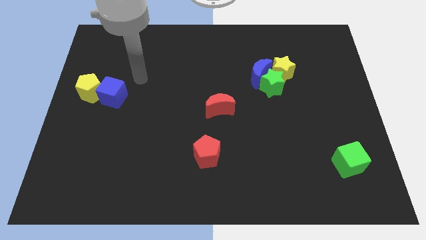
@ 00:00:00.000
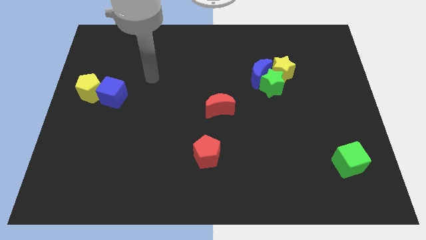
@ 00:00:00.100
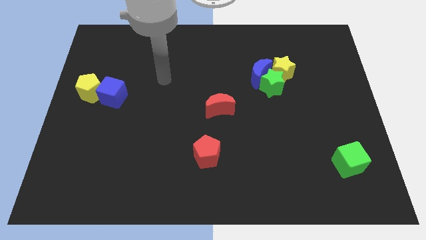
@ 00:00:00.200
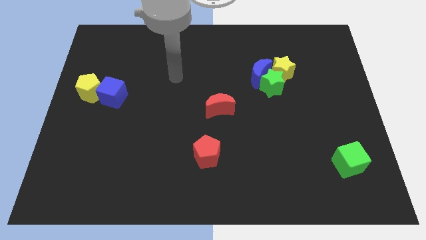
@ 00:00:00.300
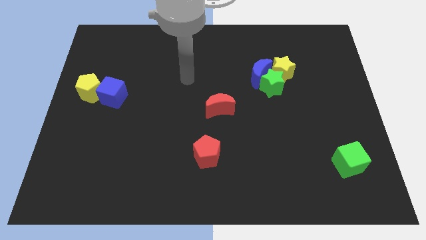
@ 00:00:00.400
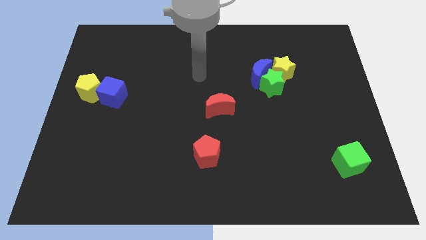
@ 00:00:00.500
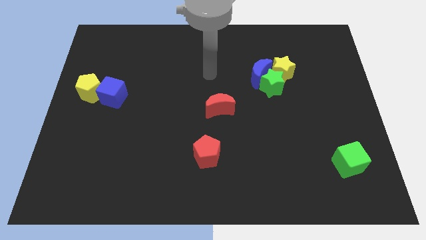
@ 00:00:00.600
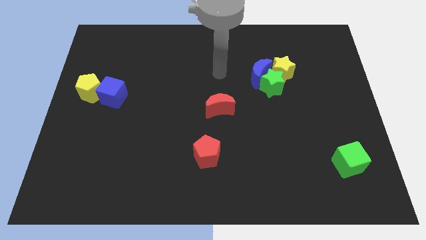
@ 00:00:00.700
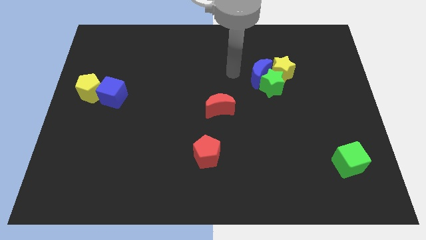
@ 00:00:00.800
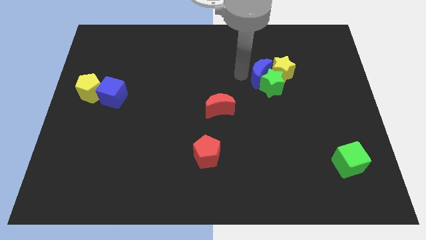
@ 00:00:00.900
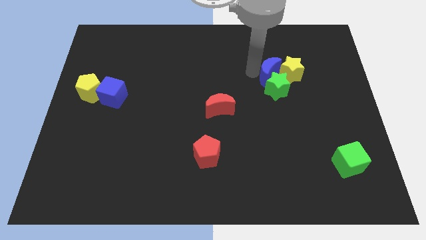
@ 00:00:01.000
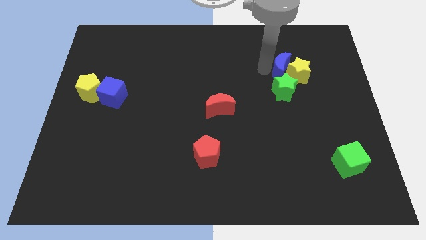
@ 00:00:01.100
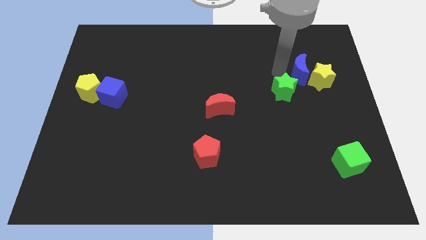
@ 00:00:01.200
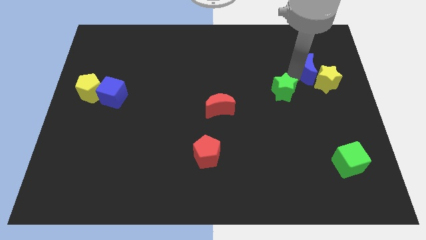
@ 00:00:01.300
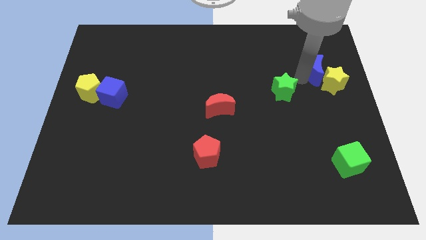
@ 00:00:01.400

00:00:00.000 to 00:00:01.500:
move the green star away from the blue moon and yellow star

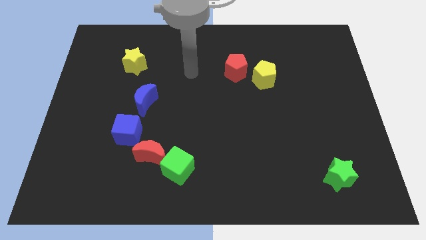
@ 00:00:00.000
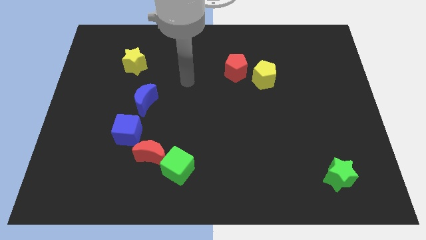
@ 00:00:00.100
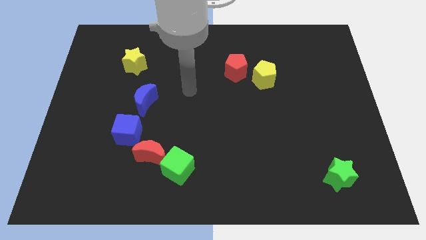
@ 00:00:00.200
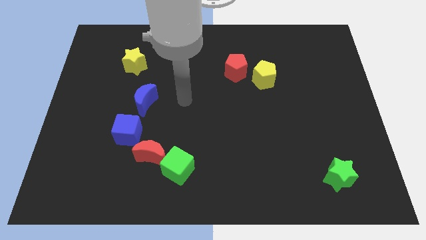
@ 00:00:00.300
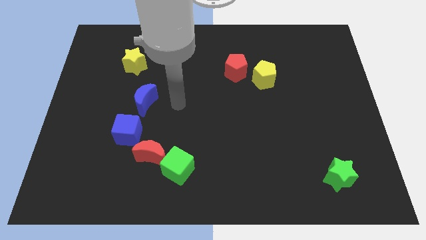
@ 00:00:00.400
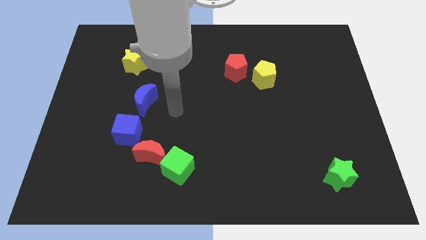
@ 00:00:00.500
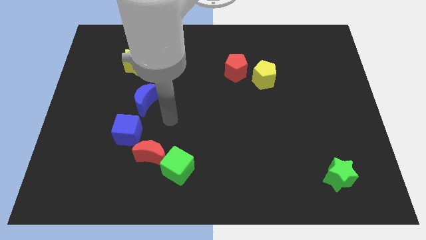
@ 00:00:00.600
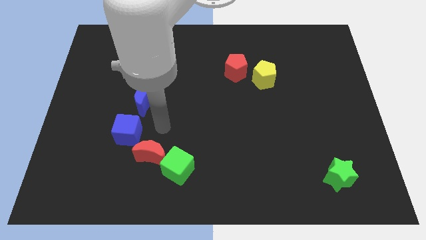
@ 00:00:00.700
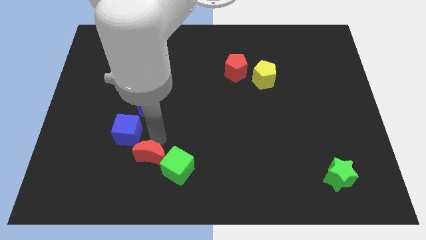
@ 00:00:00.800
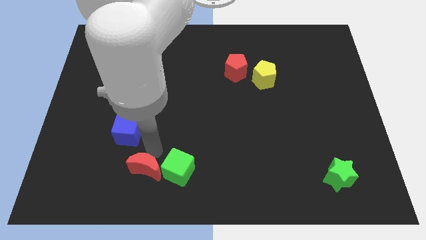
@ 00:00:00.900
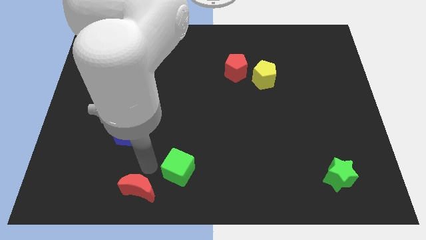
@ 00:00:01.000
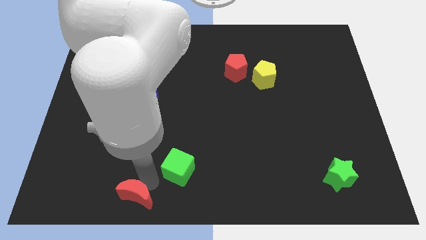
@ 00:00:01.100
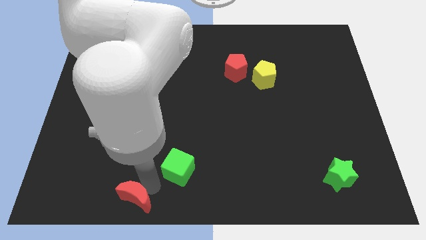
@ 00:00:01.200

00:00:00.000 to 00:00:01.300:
pull the green cube apart from the red moon

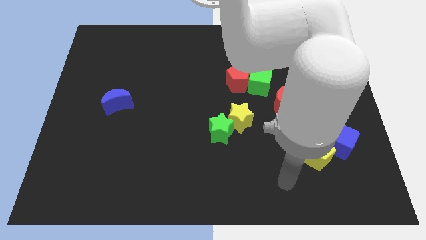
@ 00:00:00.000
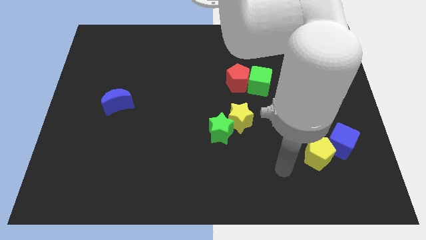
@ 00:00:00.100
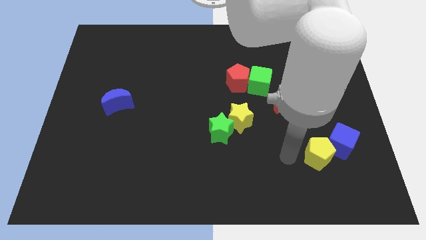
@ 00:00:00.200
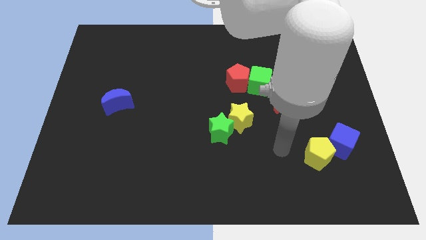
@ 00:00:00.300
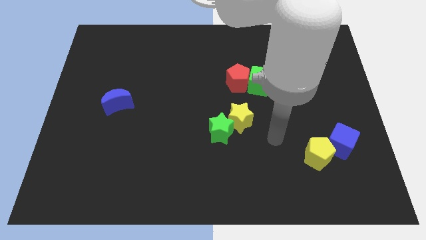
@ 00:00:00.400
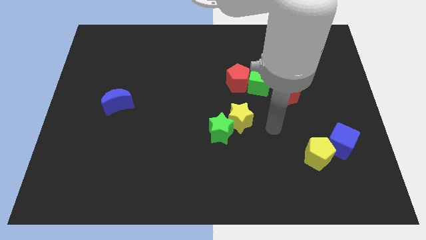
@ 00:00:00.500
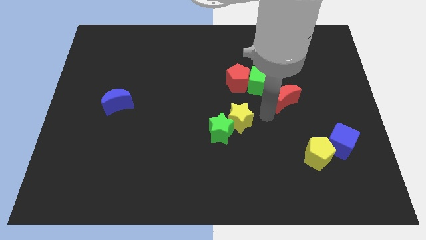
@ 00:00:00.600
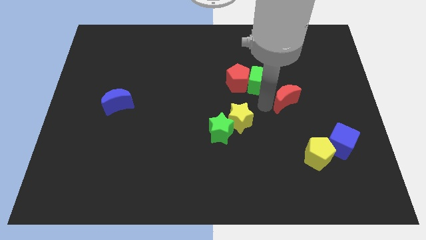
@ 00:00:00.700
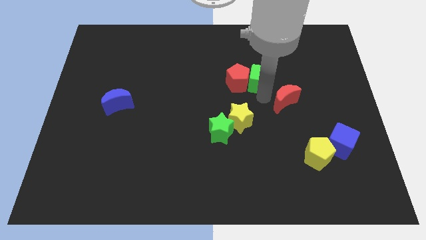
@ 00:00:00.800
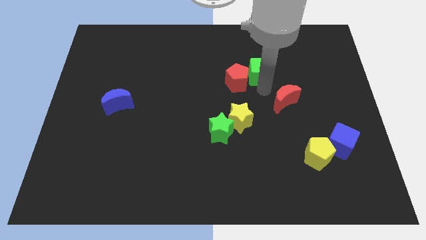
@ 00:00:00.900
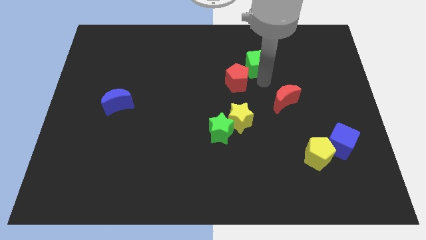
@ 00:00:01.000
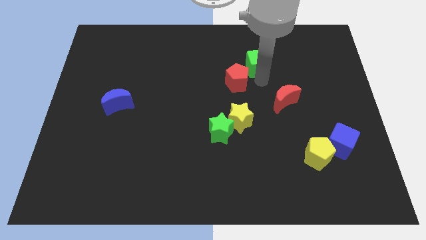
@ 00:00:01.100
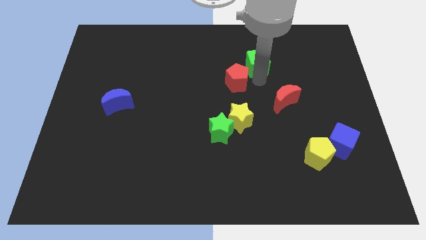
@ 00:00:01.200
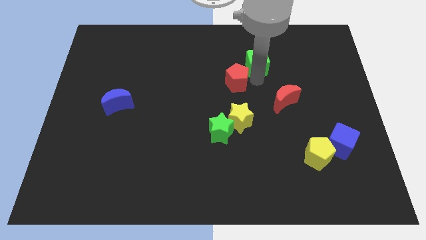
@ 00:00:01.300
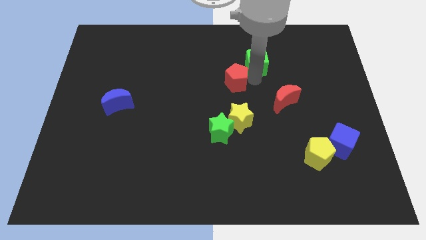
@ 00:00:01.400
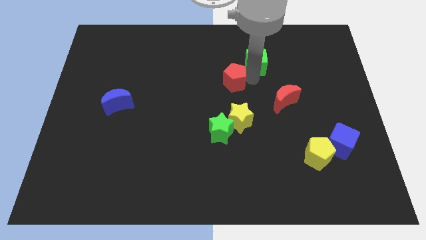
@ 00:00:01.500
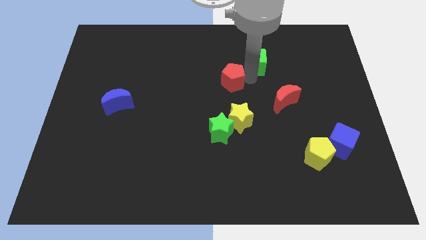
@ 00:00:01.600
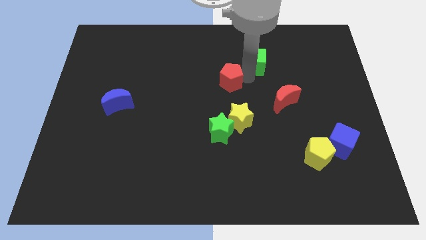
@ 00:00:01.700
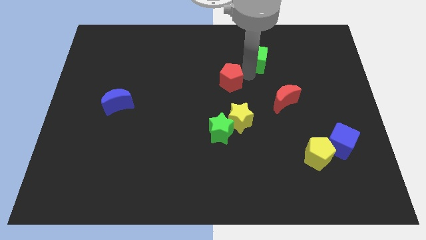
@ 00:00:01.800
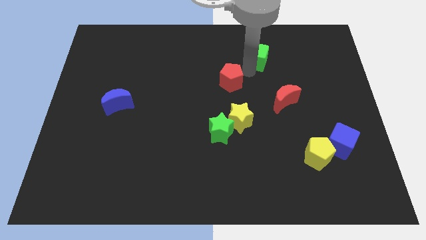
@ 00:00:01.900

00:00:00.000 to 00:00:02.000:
separate the red pentagon from the green cube

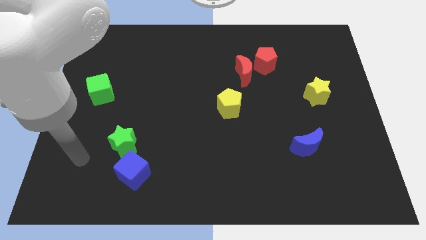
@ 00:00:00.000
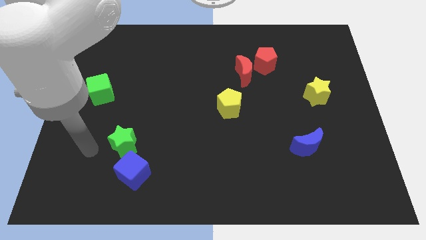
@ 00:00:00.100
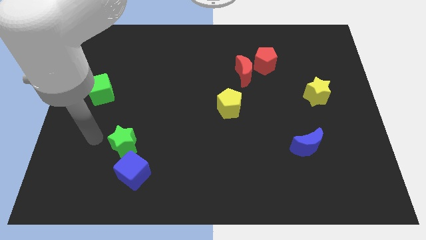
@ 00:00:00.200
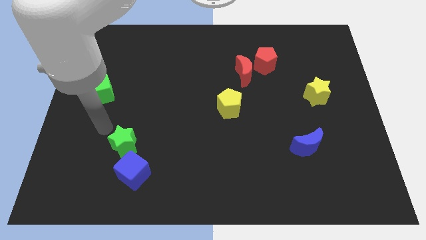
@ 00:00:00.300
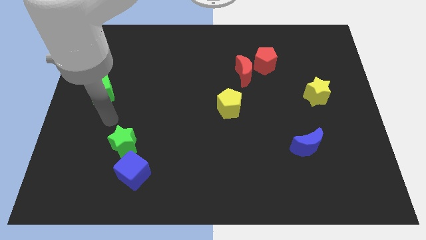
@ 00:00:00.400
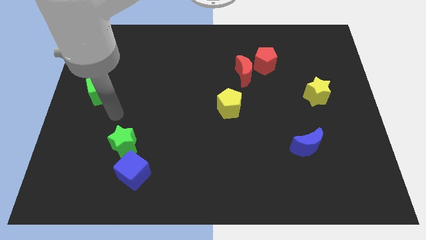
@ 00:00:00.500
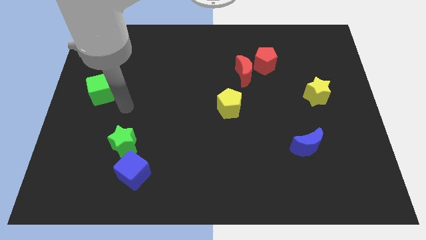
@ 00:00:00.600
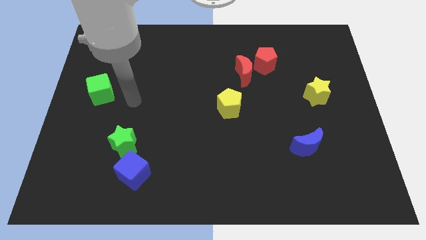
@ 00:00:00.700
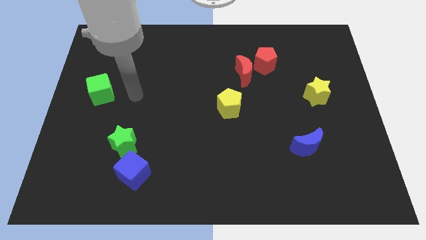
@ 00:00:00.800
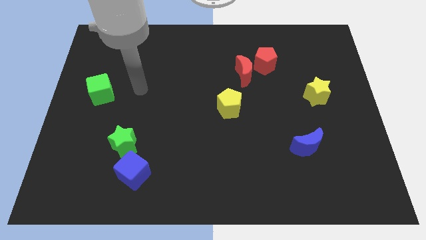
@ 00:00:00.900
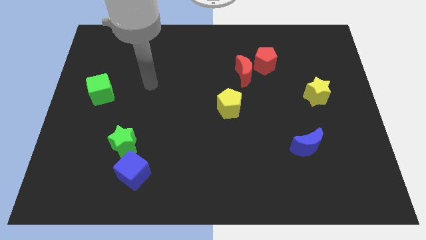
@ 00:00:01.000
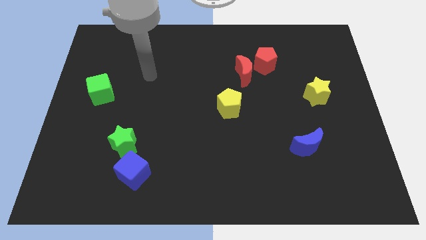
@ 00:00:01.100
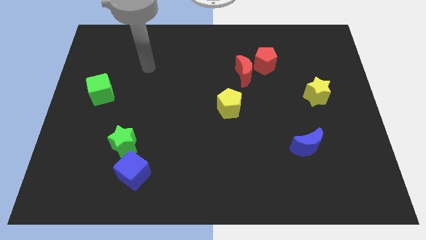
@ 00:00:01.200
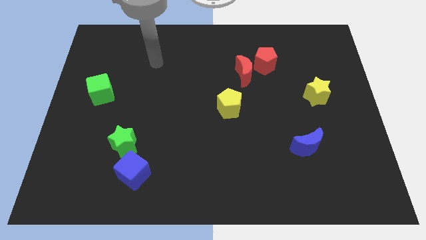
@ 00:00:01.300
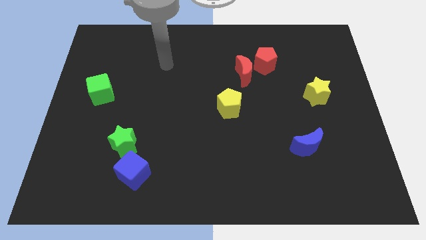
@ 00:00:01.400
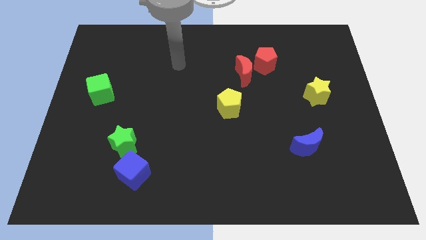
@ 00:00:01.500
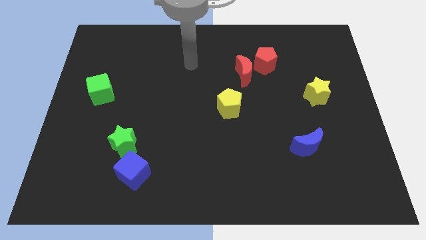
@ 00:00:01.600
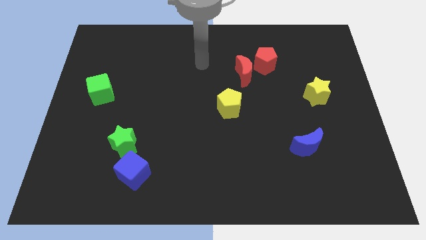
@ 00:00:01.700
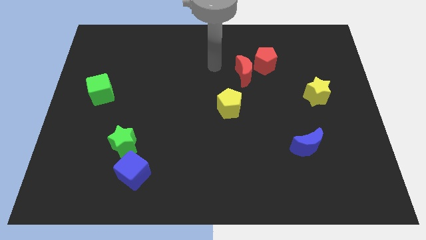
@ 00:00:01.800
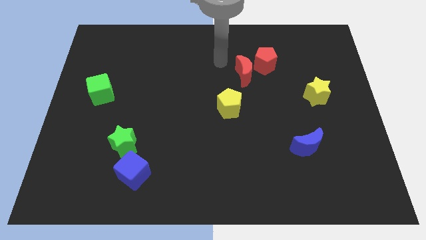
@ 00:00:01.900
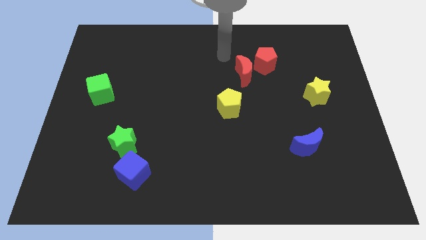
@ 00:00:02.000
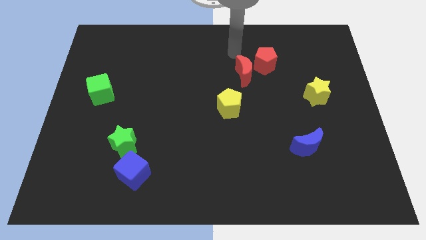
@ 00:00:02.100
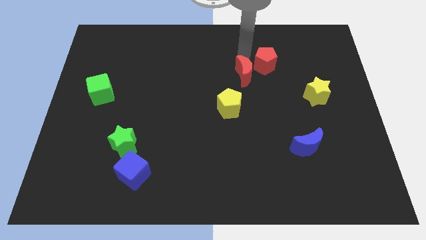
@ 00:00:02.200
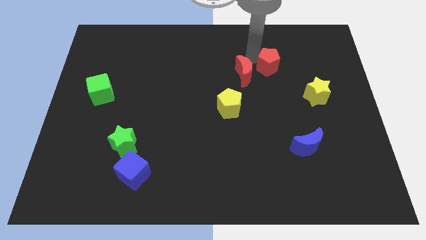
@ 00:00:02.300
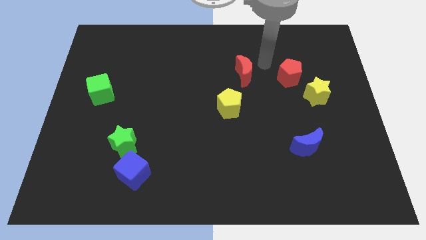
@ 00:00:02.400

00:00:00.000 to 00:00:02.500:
pull the red moon apart from the red pentagon

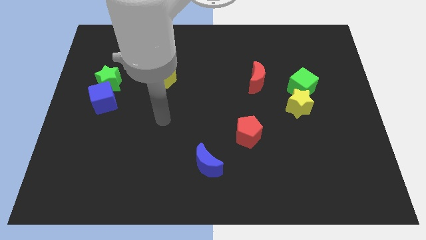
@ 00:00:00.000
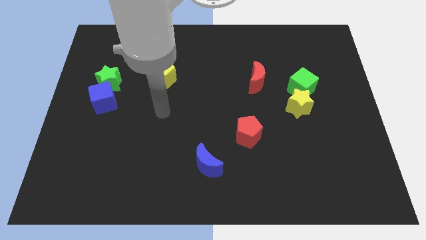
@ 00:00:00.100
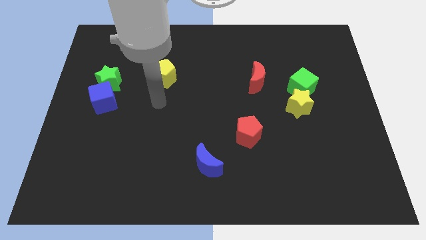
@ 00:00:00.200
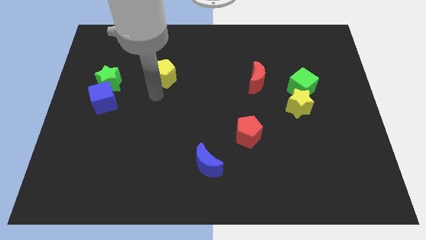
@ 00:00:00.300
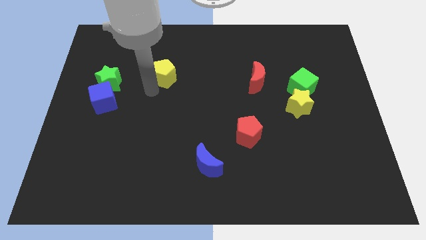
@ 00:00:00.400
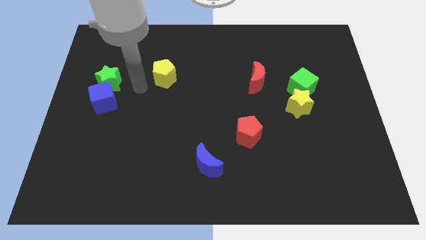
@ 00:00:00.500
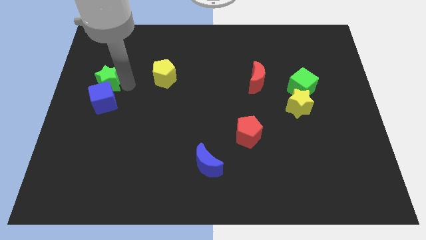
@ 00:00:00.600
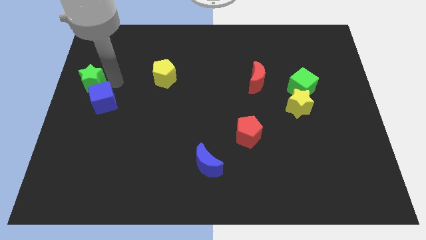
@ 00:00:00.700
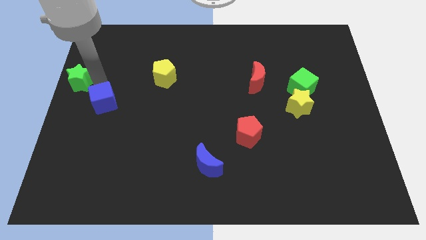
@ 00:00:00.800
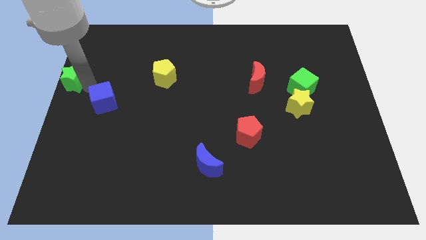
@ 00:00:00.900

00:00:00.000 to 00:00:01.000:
pull the blue cube apart from the green star

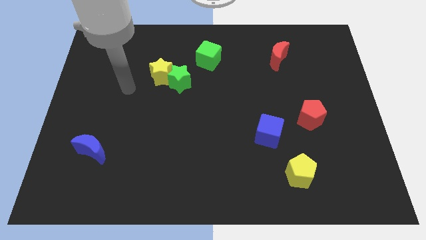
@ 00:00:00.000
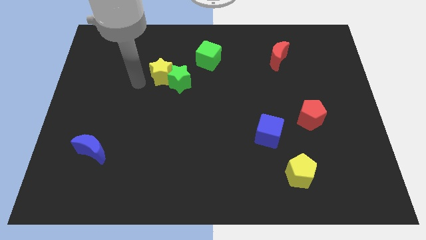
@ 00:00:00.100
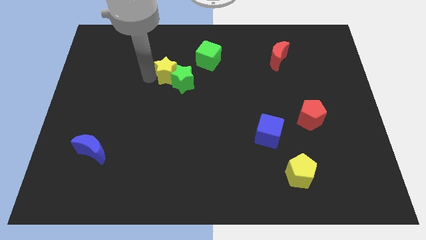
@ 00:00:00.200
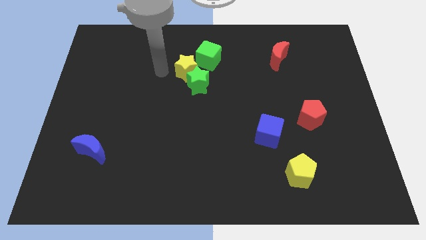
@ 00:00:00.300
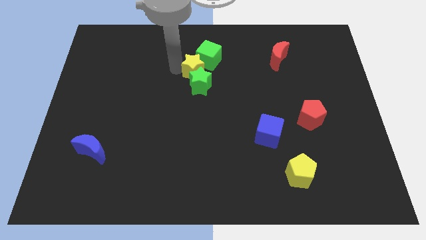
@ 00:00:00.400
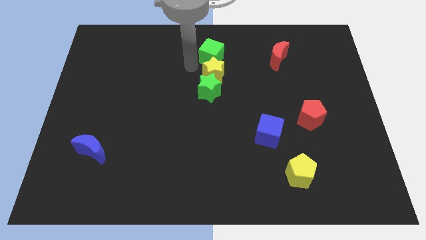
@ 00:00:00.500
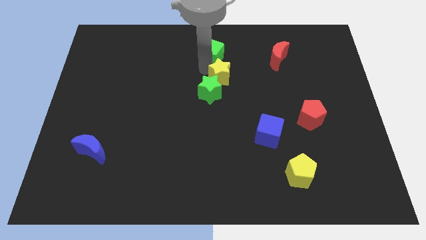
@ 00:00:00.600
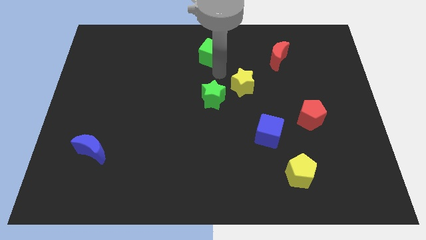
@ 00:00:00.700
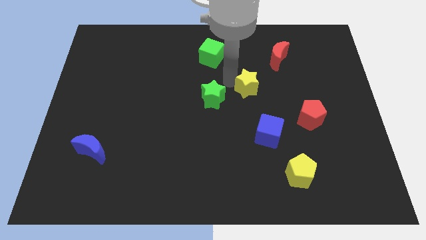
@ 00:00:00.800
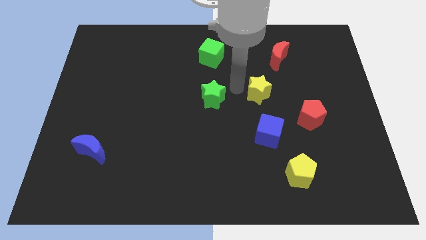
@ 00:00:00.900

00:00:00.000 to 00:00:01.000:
pull the green star apart from the yellow star

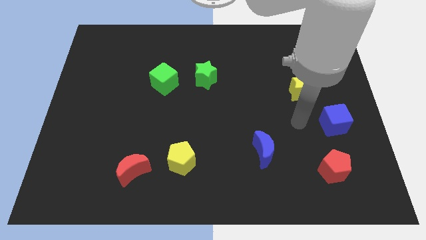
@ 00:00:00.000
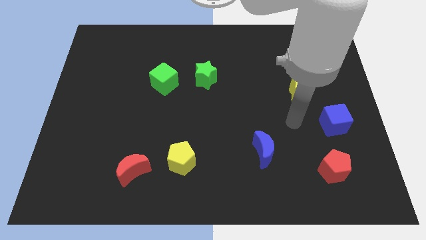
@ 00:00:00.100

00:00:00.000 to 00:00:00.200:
separate the green cube from the green star
